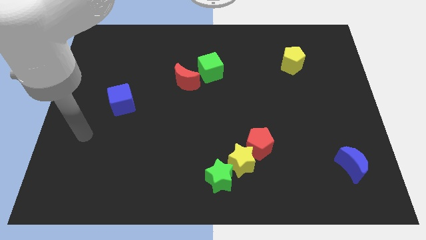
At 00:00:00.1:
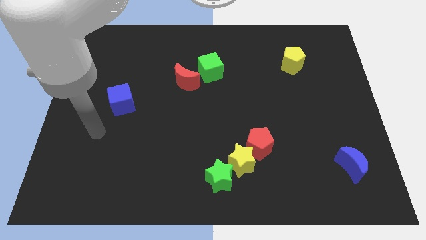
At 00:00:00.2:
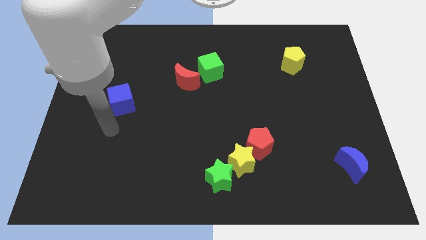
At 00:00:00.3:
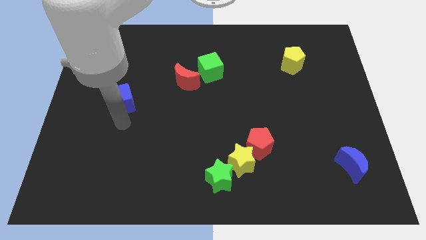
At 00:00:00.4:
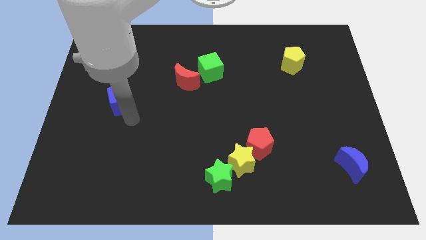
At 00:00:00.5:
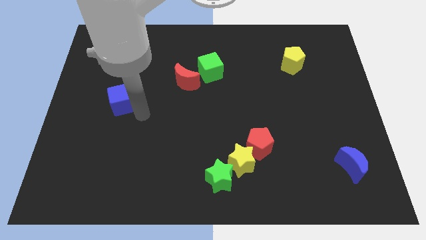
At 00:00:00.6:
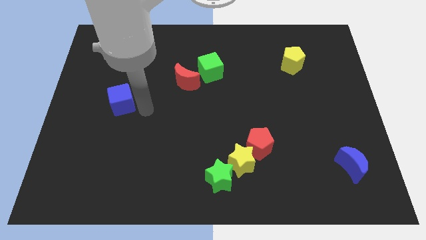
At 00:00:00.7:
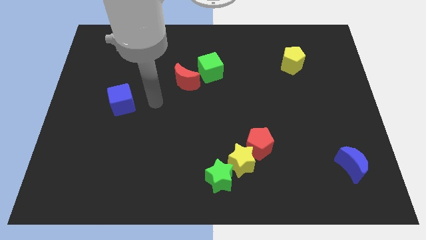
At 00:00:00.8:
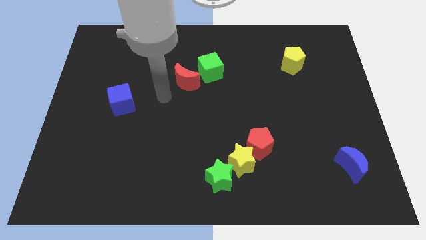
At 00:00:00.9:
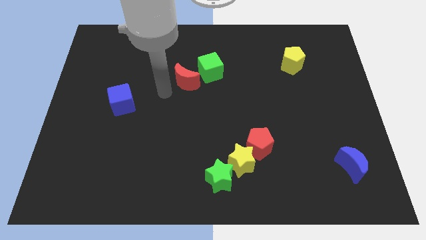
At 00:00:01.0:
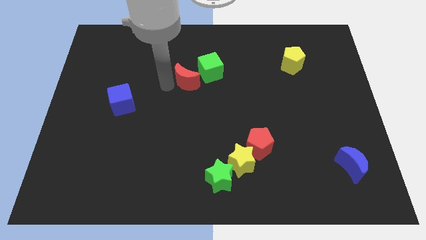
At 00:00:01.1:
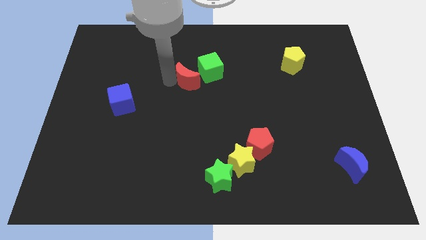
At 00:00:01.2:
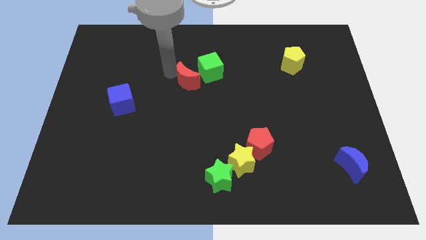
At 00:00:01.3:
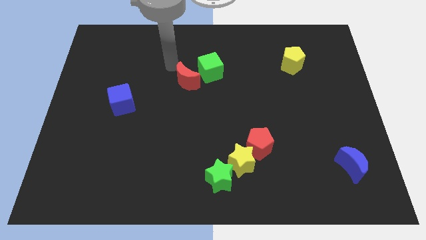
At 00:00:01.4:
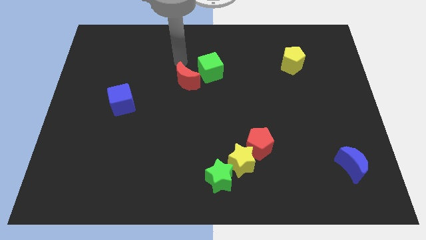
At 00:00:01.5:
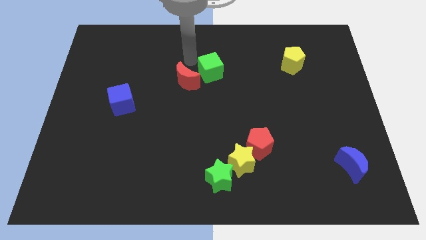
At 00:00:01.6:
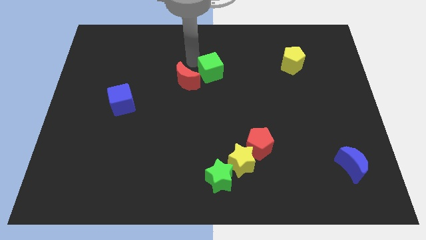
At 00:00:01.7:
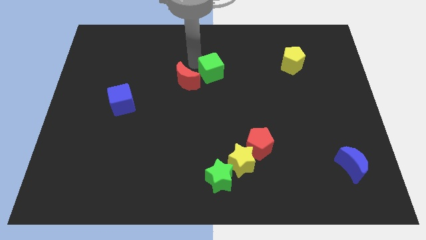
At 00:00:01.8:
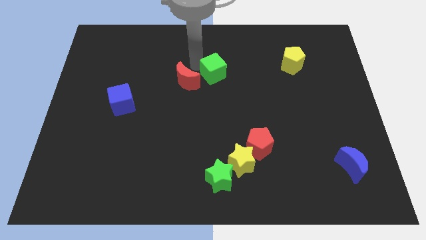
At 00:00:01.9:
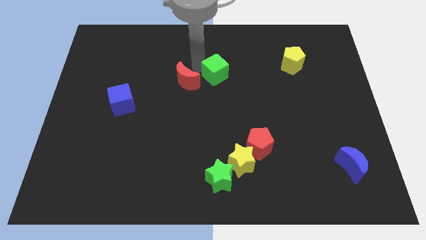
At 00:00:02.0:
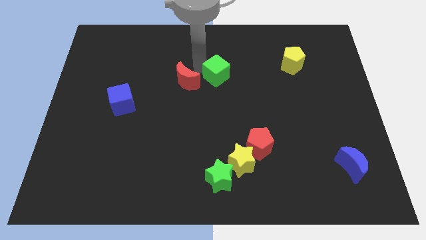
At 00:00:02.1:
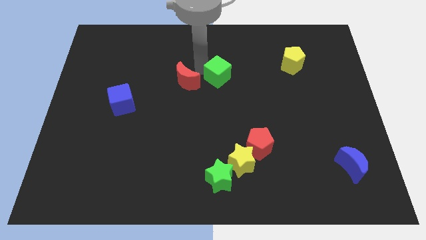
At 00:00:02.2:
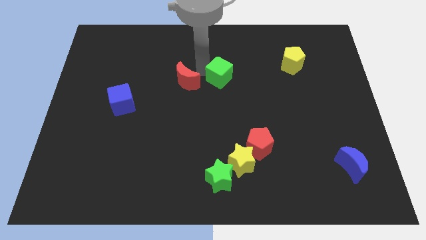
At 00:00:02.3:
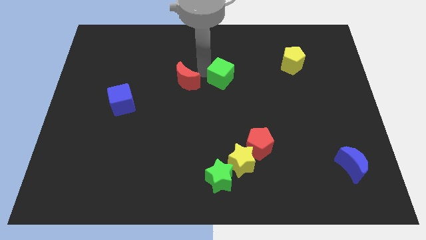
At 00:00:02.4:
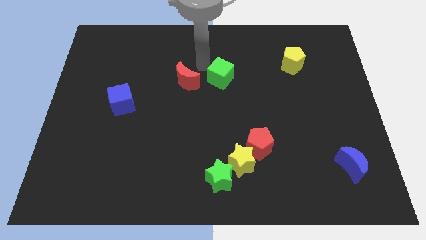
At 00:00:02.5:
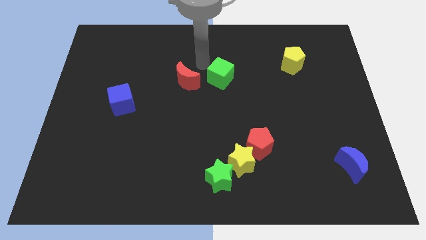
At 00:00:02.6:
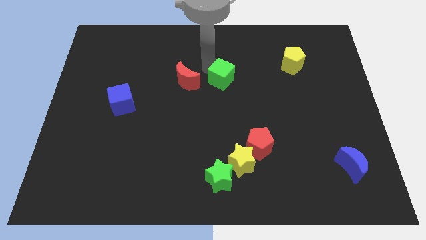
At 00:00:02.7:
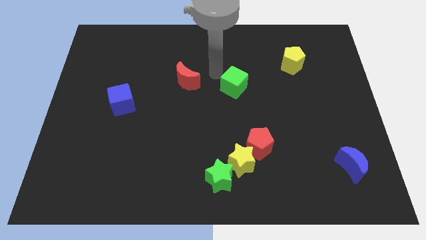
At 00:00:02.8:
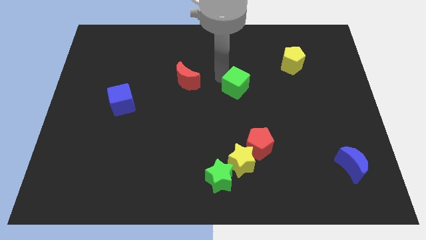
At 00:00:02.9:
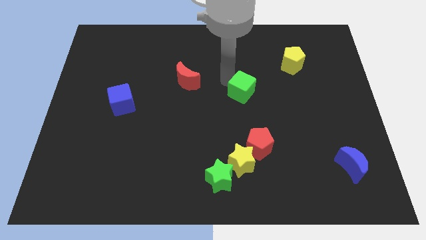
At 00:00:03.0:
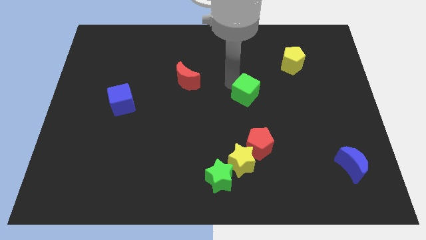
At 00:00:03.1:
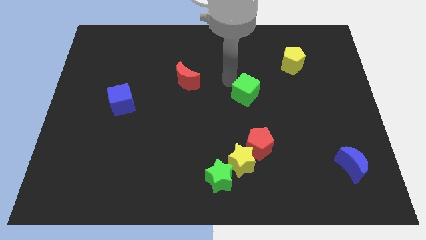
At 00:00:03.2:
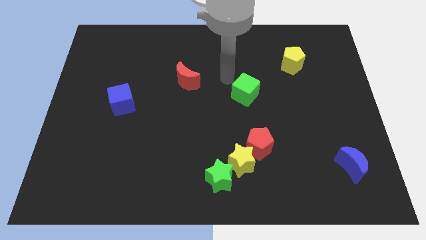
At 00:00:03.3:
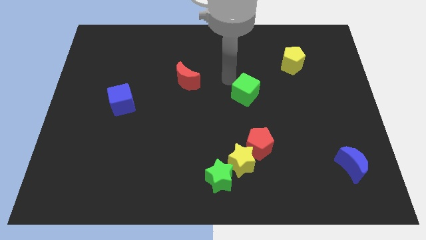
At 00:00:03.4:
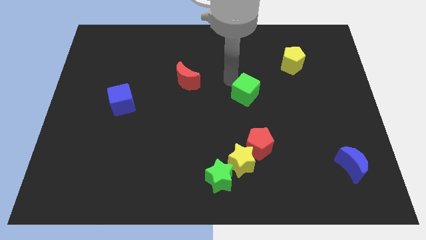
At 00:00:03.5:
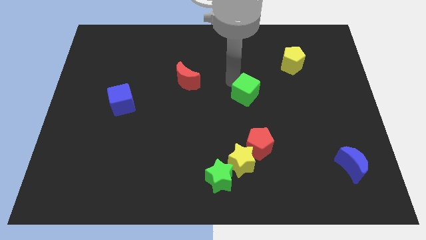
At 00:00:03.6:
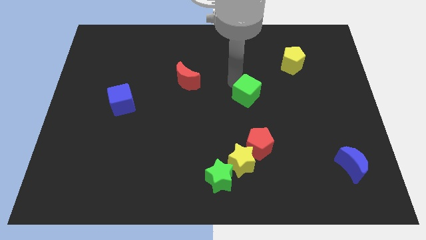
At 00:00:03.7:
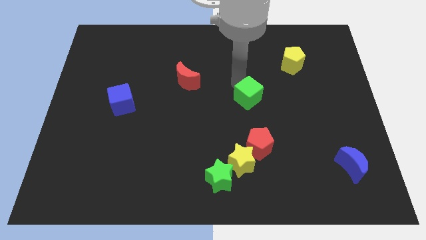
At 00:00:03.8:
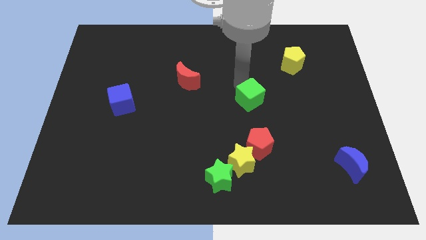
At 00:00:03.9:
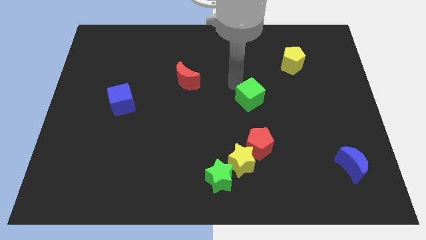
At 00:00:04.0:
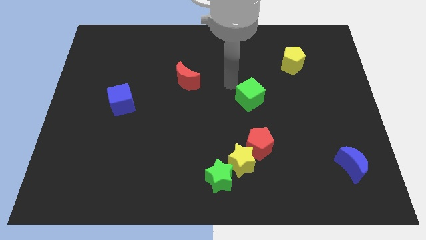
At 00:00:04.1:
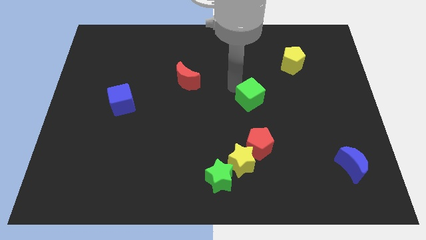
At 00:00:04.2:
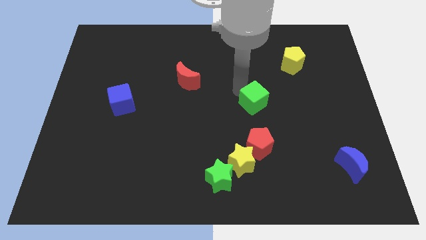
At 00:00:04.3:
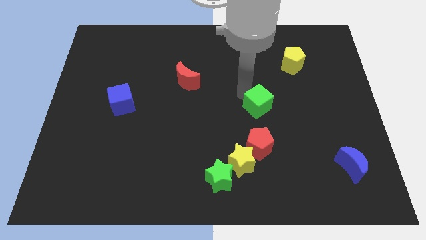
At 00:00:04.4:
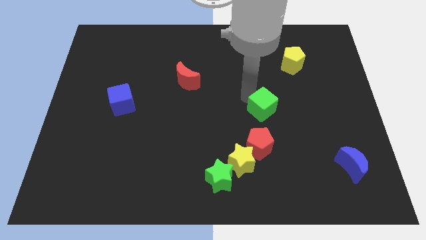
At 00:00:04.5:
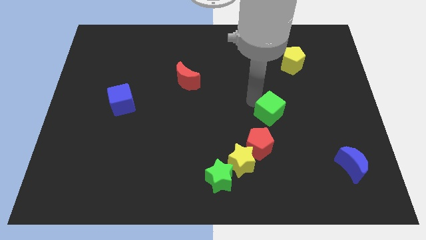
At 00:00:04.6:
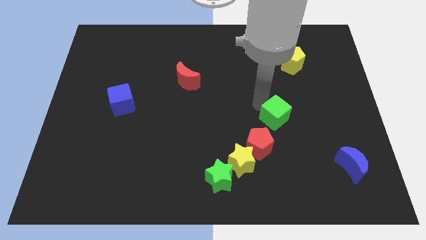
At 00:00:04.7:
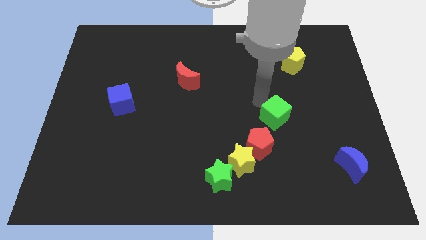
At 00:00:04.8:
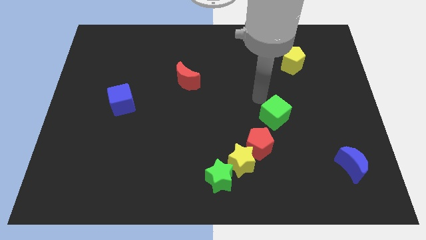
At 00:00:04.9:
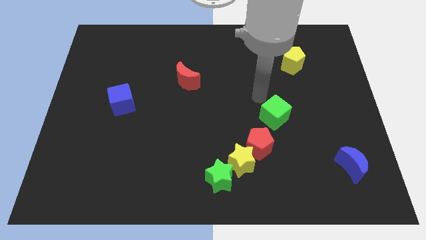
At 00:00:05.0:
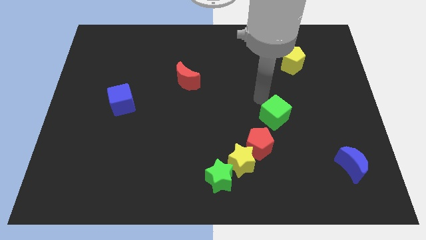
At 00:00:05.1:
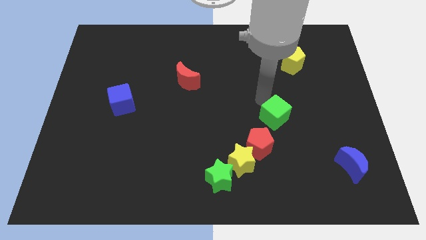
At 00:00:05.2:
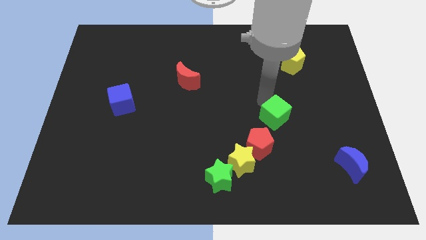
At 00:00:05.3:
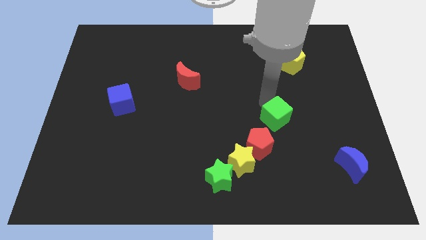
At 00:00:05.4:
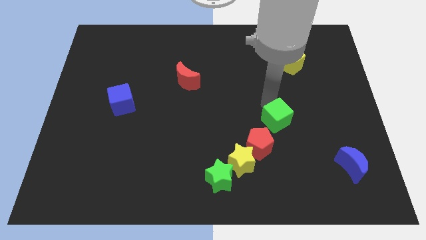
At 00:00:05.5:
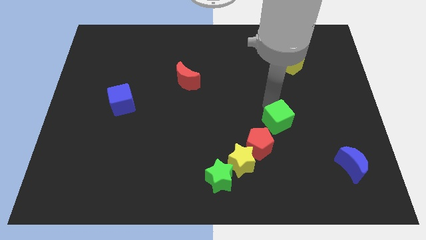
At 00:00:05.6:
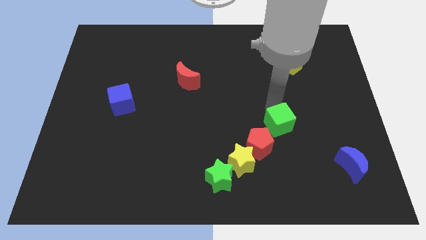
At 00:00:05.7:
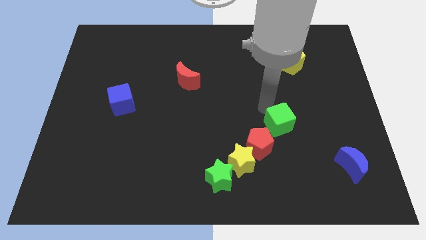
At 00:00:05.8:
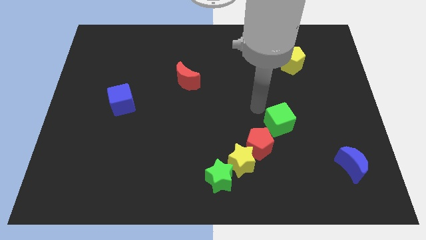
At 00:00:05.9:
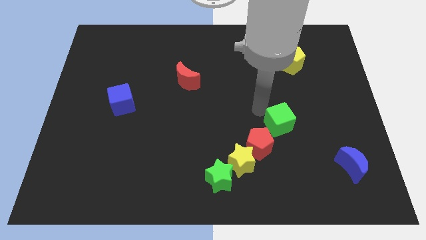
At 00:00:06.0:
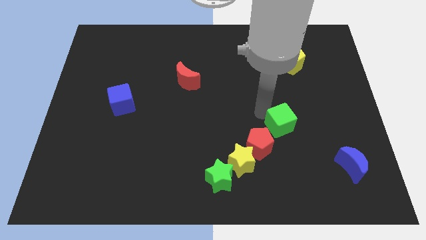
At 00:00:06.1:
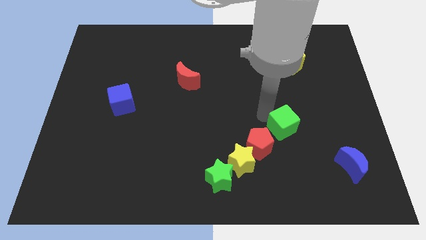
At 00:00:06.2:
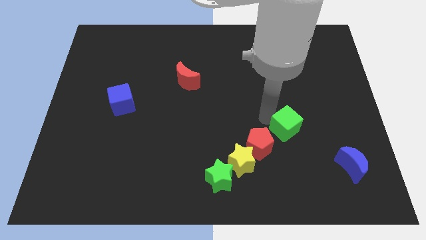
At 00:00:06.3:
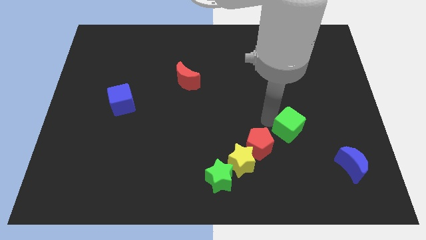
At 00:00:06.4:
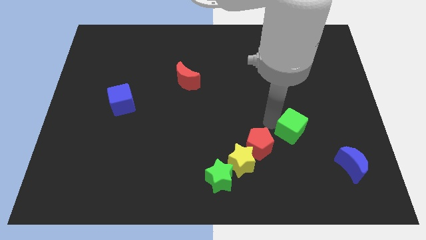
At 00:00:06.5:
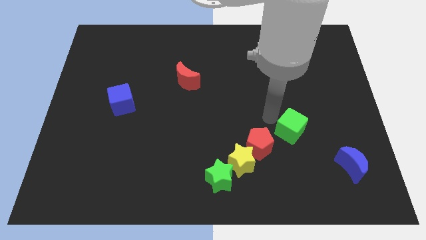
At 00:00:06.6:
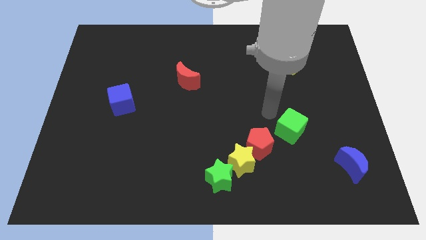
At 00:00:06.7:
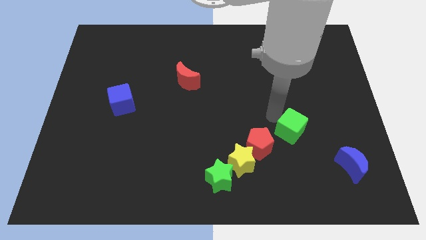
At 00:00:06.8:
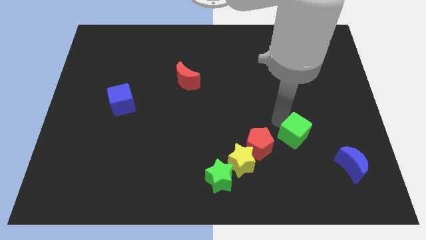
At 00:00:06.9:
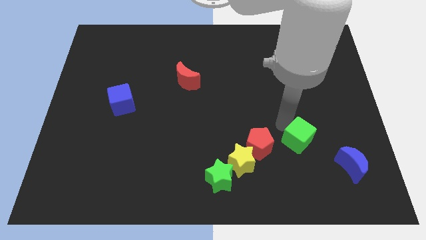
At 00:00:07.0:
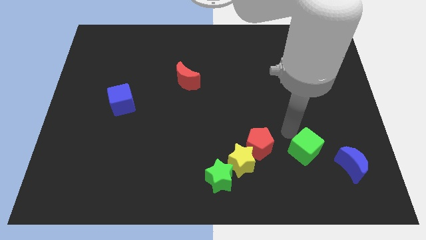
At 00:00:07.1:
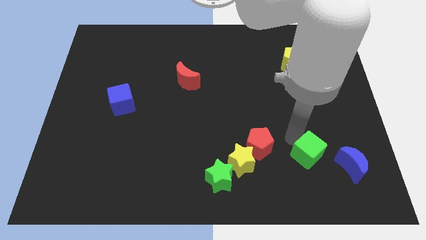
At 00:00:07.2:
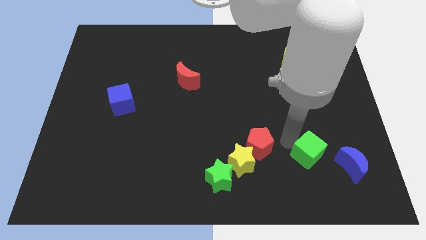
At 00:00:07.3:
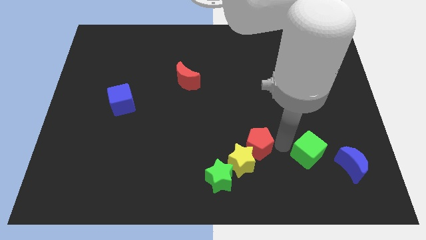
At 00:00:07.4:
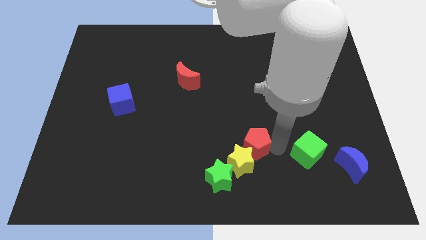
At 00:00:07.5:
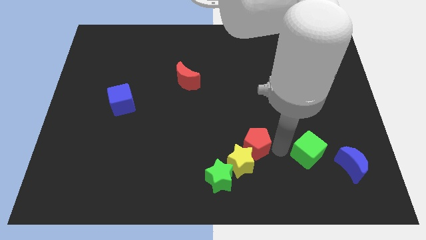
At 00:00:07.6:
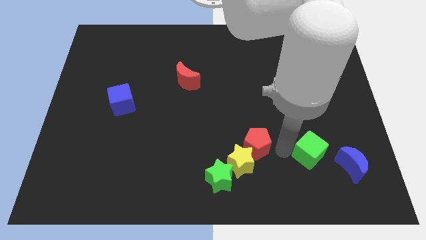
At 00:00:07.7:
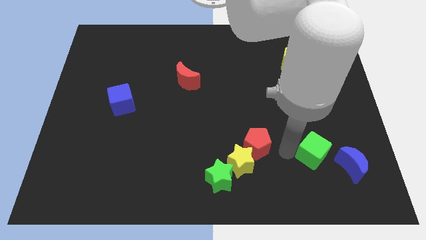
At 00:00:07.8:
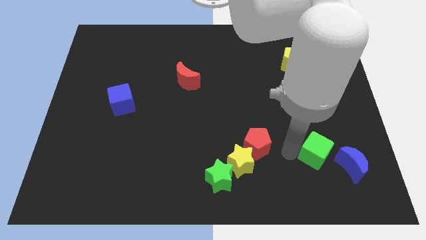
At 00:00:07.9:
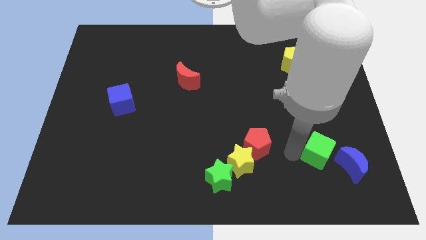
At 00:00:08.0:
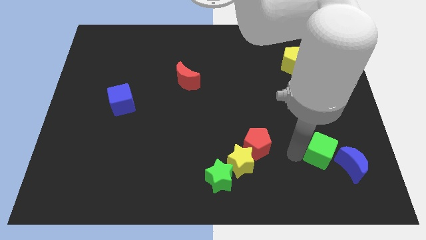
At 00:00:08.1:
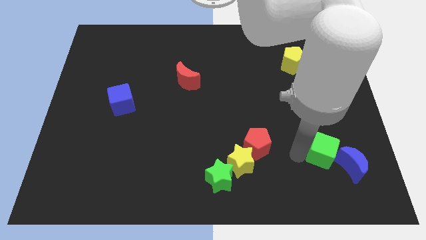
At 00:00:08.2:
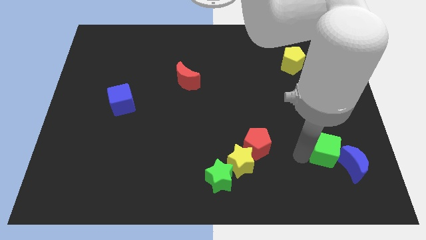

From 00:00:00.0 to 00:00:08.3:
put the green cube close to the blue moon
